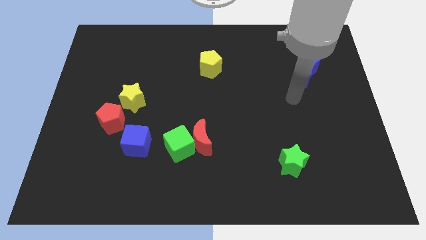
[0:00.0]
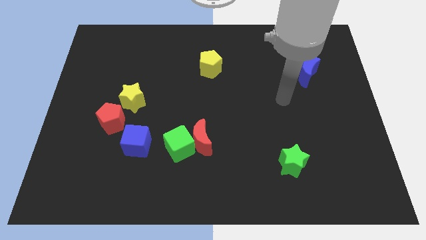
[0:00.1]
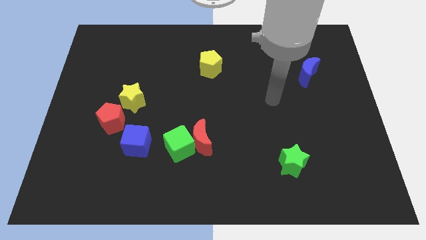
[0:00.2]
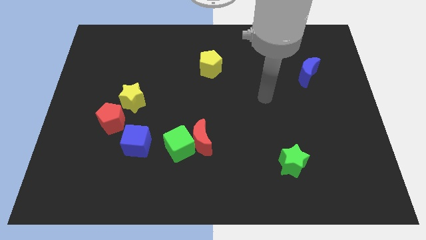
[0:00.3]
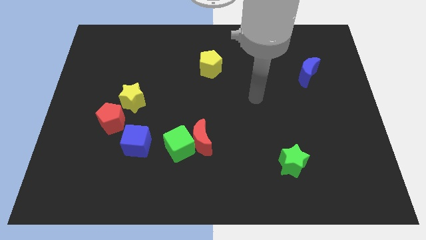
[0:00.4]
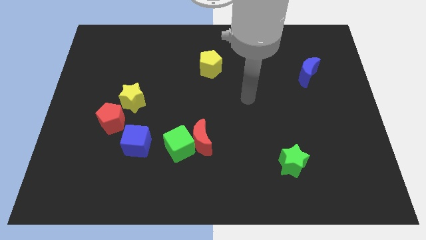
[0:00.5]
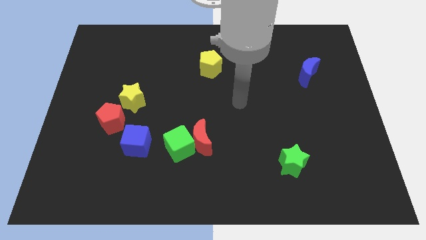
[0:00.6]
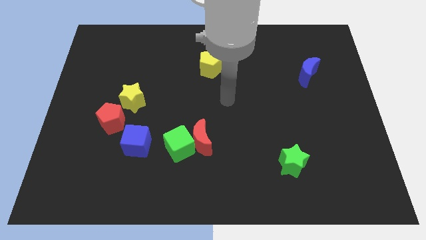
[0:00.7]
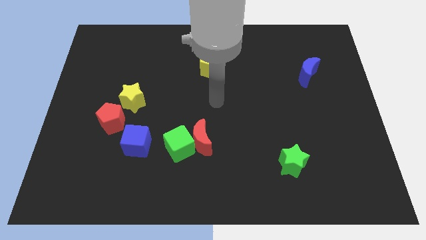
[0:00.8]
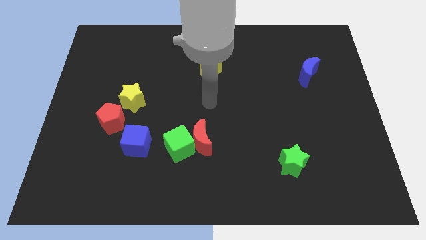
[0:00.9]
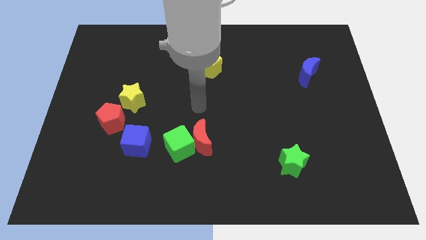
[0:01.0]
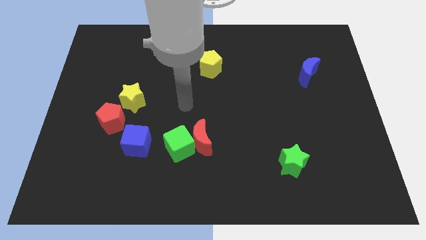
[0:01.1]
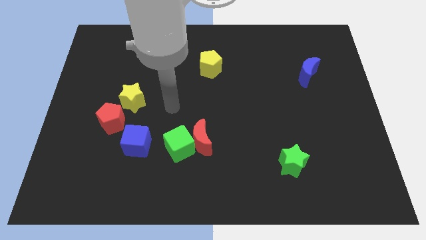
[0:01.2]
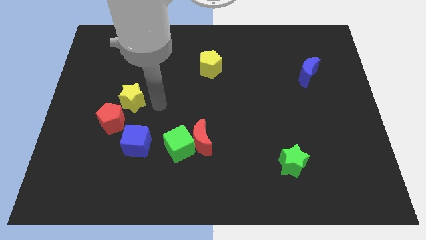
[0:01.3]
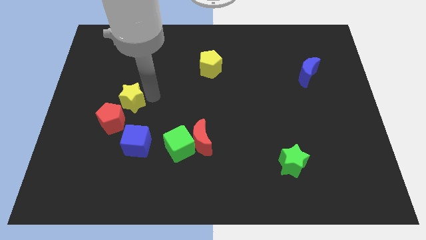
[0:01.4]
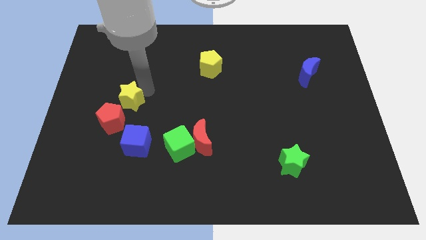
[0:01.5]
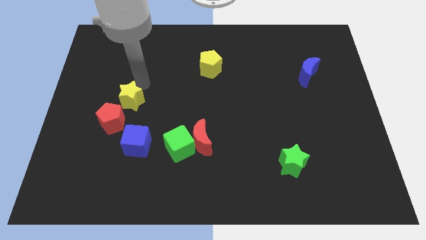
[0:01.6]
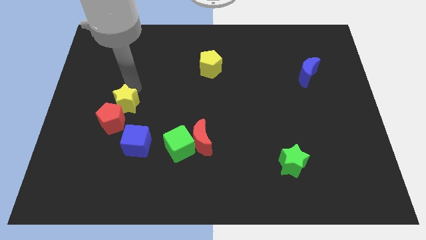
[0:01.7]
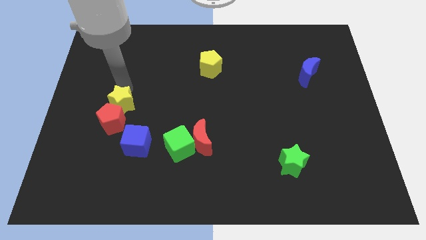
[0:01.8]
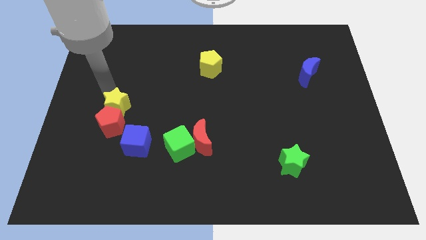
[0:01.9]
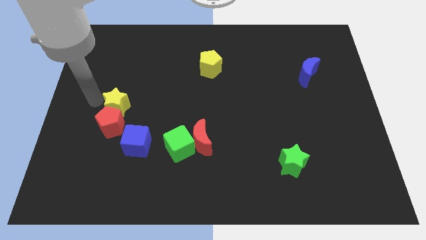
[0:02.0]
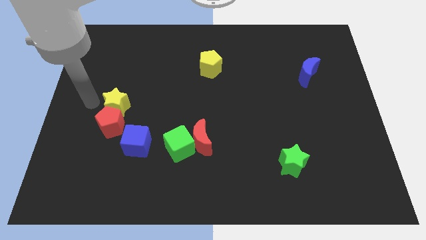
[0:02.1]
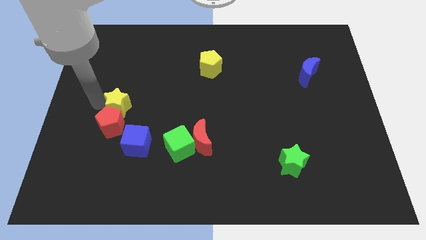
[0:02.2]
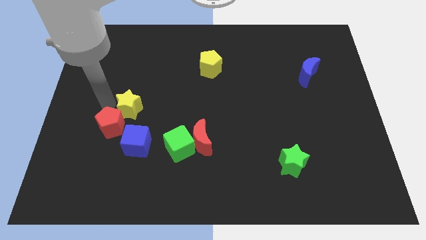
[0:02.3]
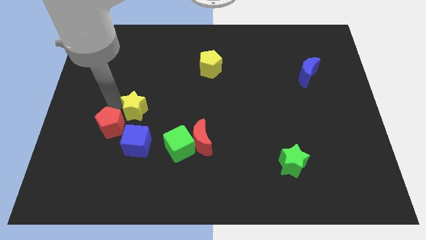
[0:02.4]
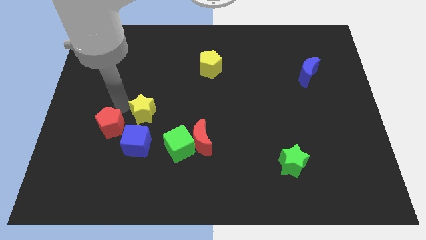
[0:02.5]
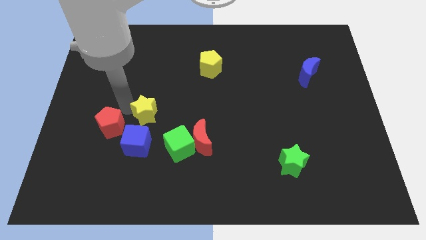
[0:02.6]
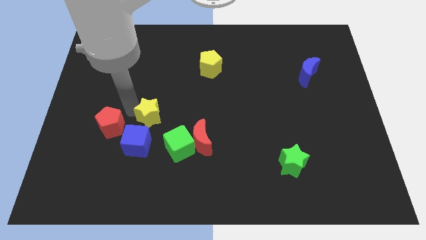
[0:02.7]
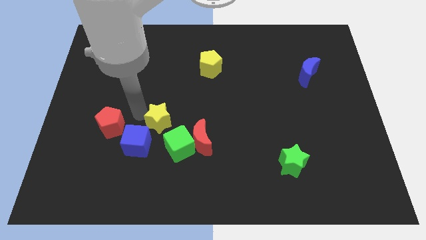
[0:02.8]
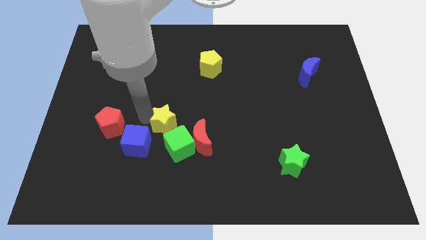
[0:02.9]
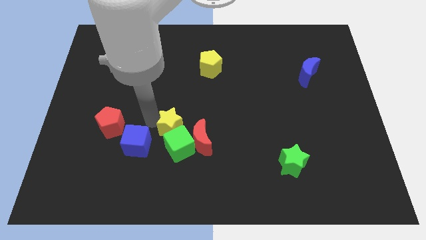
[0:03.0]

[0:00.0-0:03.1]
push the yellow star somewhat to the right

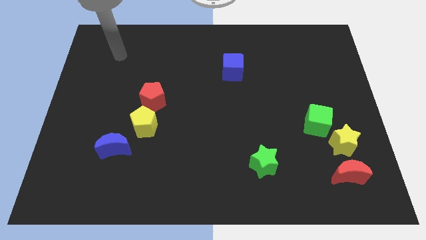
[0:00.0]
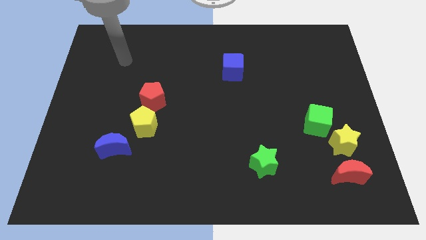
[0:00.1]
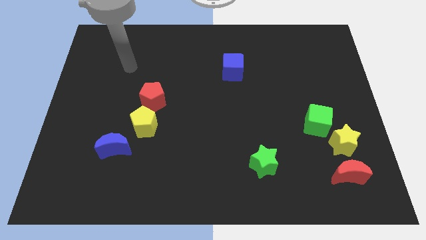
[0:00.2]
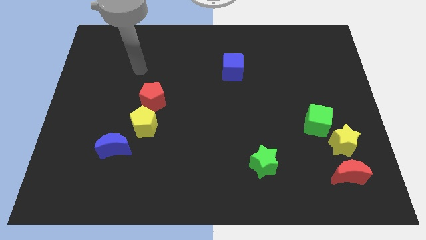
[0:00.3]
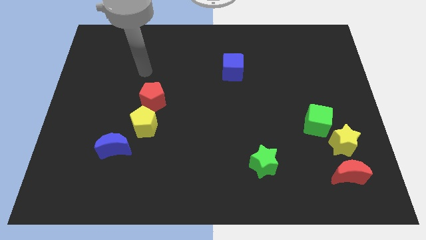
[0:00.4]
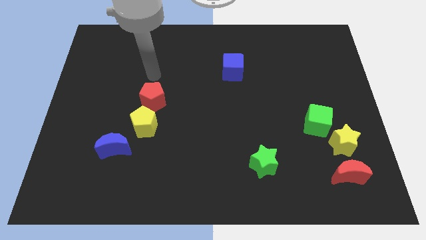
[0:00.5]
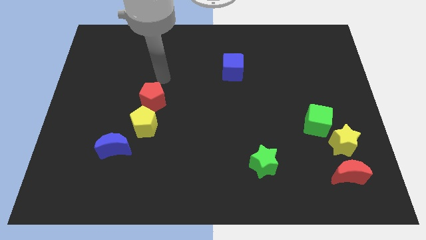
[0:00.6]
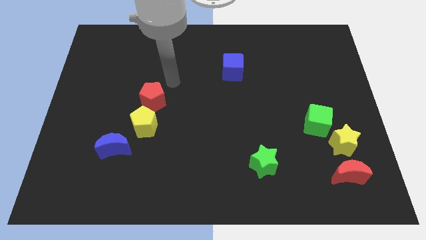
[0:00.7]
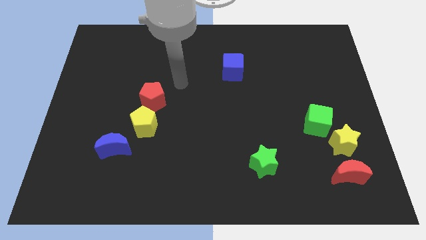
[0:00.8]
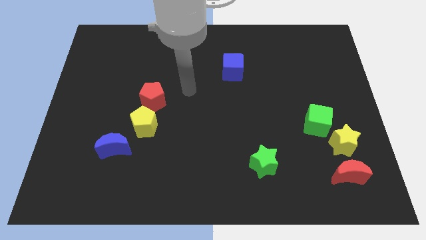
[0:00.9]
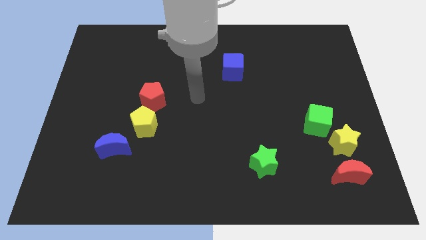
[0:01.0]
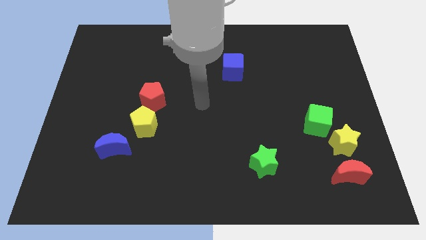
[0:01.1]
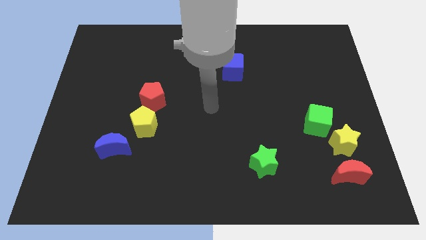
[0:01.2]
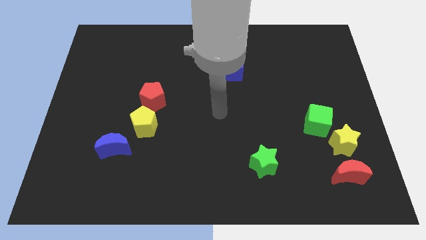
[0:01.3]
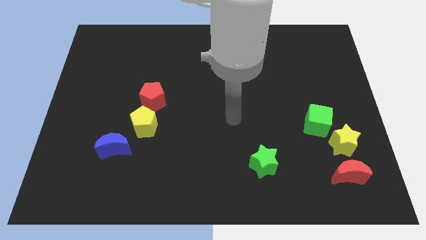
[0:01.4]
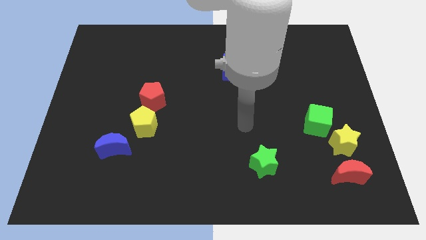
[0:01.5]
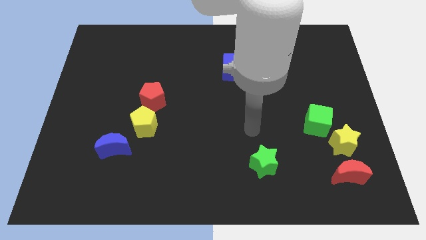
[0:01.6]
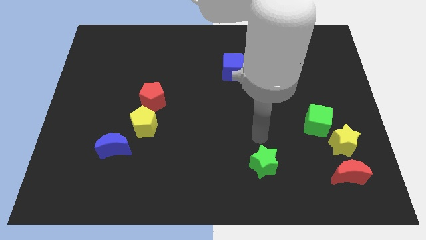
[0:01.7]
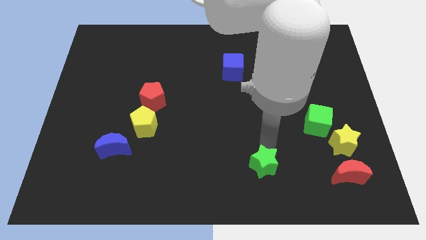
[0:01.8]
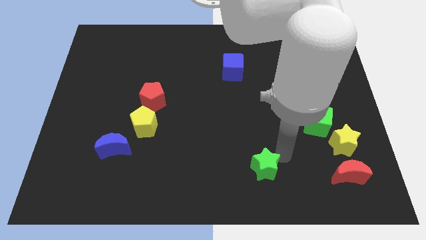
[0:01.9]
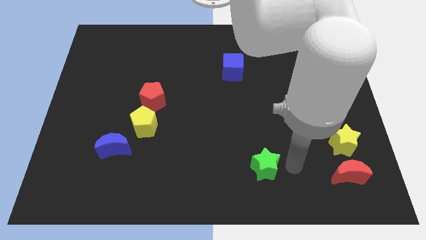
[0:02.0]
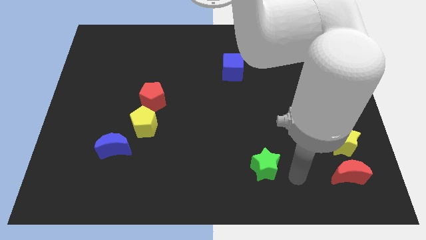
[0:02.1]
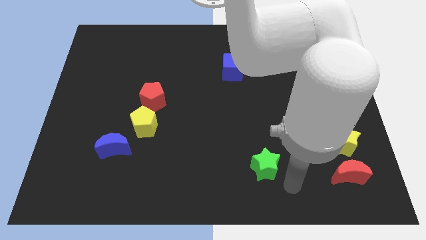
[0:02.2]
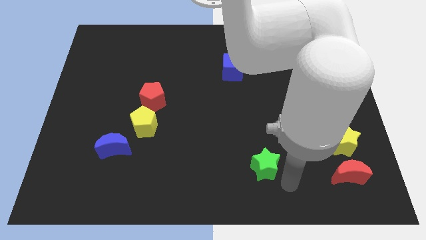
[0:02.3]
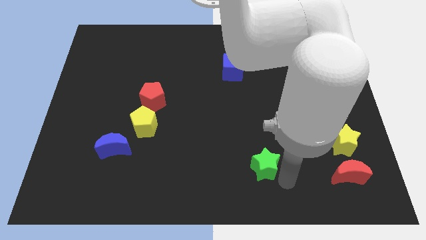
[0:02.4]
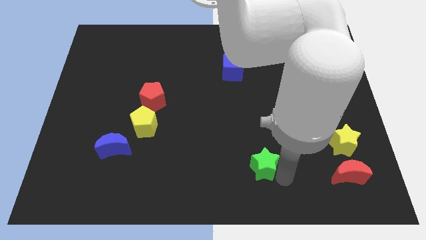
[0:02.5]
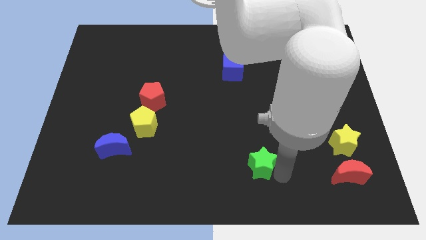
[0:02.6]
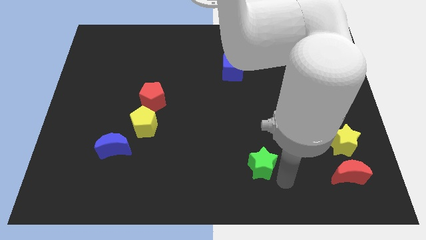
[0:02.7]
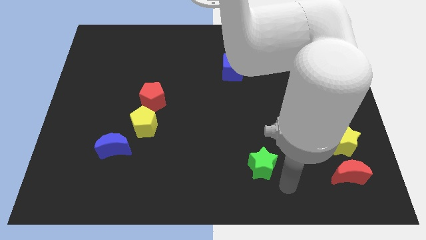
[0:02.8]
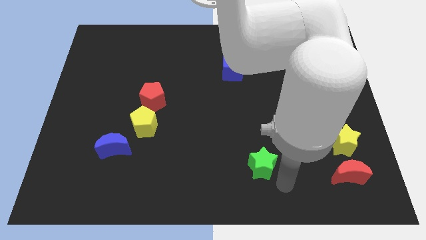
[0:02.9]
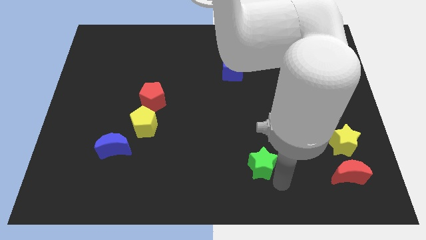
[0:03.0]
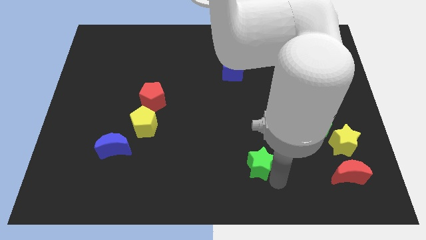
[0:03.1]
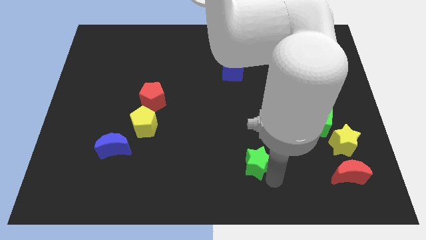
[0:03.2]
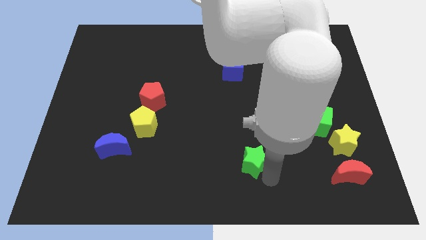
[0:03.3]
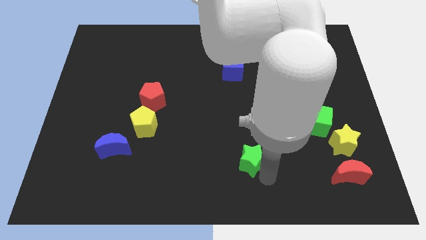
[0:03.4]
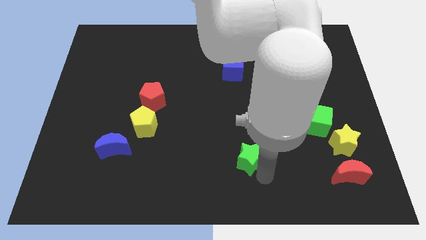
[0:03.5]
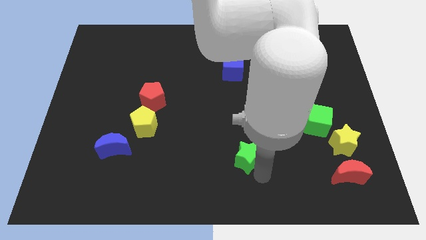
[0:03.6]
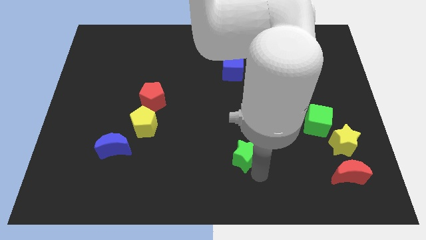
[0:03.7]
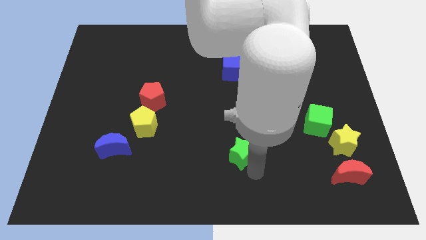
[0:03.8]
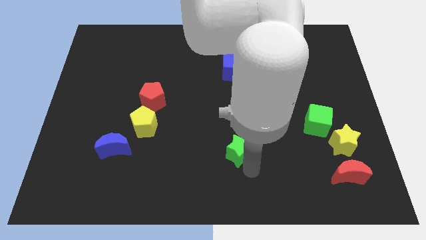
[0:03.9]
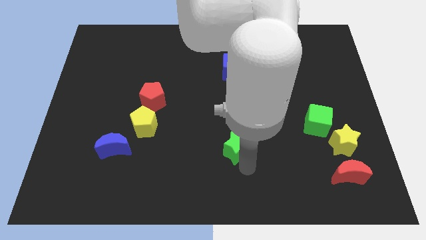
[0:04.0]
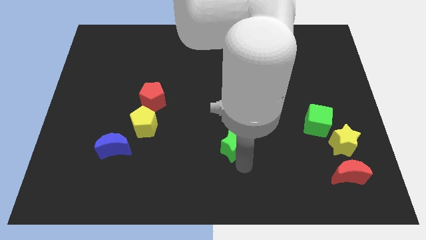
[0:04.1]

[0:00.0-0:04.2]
push the green star a little upwards and to the left
